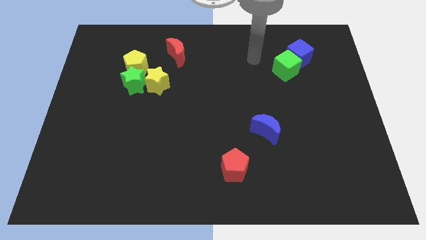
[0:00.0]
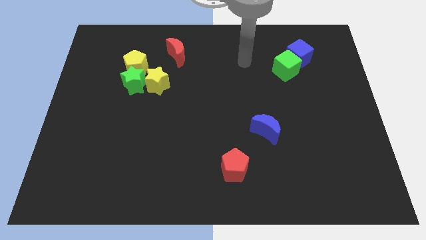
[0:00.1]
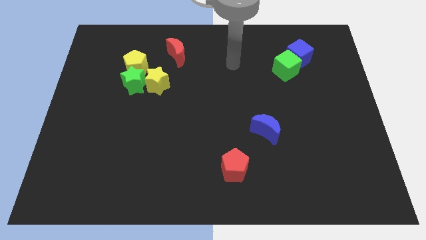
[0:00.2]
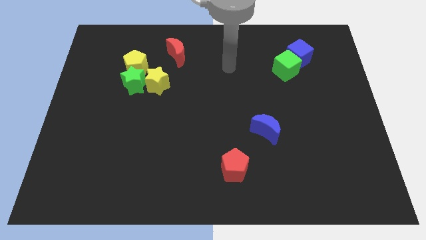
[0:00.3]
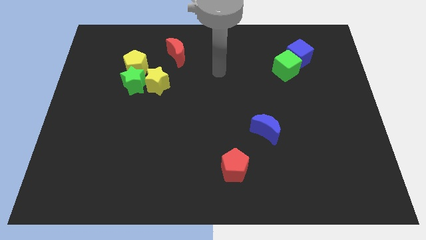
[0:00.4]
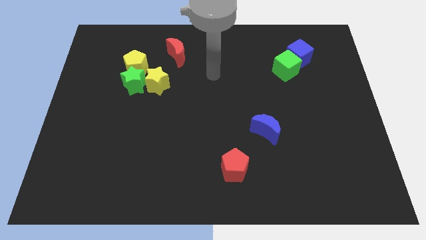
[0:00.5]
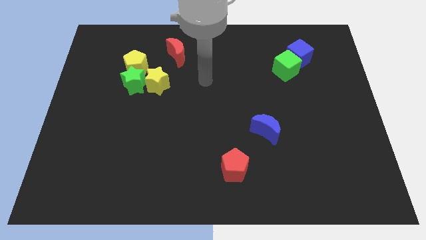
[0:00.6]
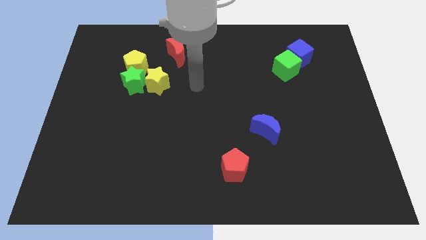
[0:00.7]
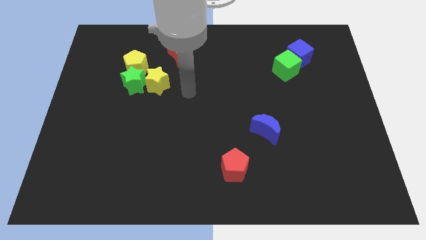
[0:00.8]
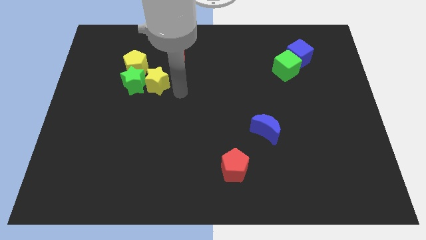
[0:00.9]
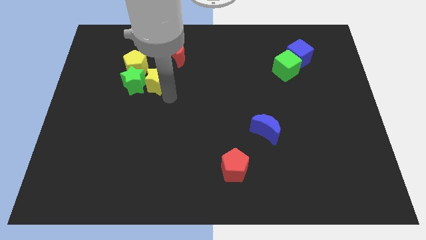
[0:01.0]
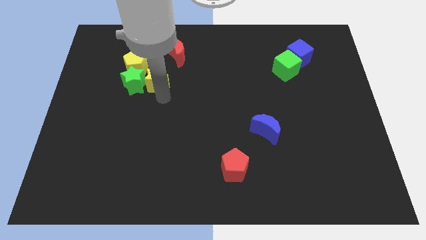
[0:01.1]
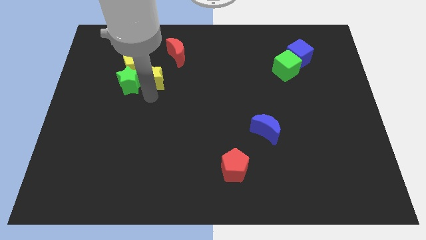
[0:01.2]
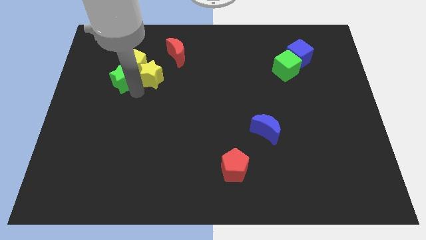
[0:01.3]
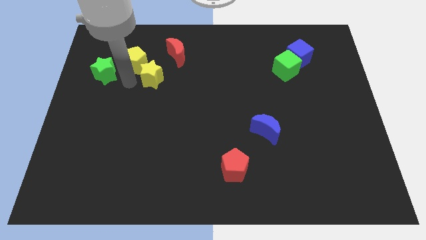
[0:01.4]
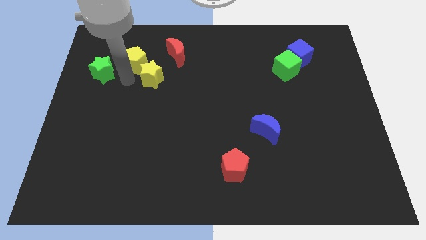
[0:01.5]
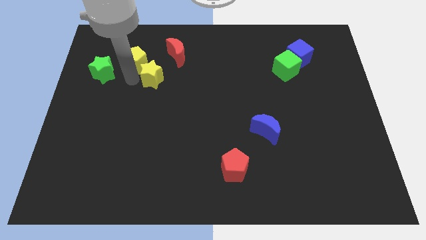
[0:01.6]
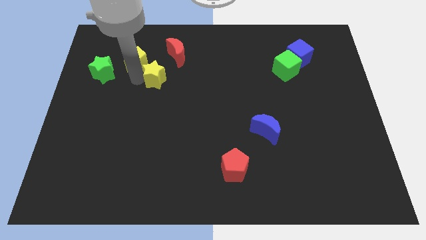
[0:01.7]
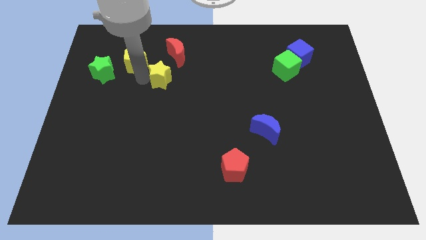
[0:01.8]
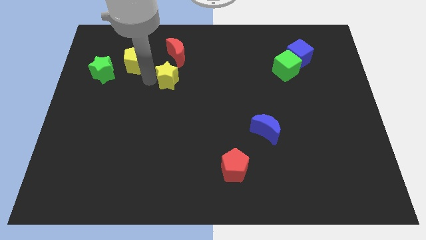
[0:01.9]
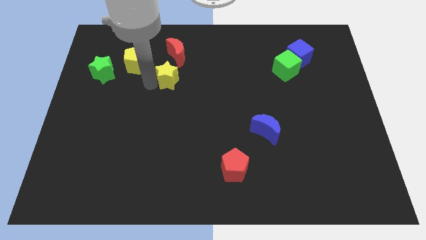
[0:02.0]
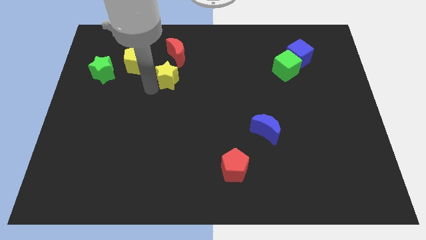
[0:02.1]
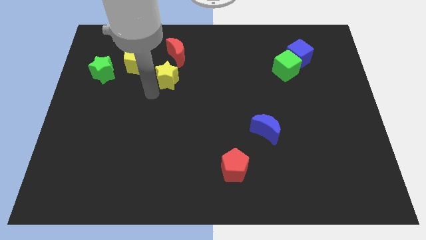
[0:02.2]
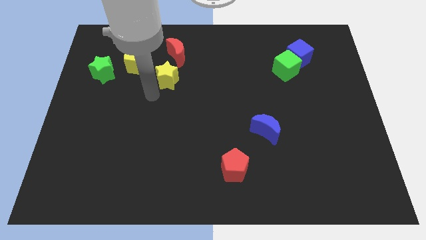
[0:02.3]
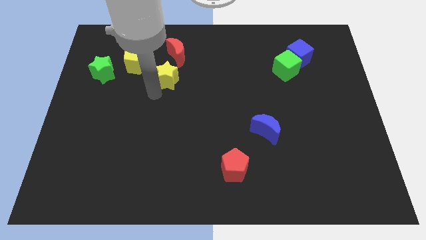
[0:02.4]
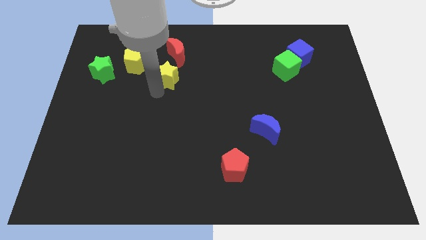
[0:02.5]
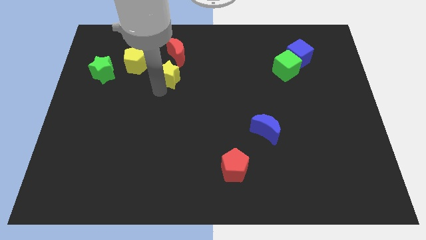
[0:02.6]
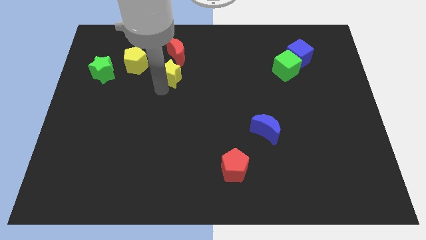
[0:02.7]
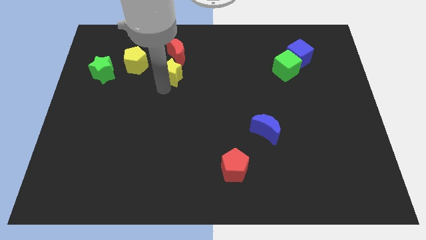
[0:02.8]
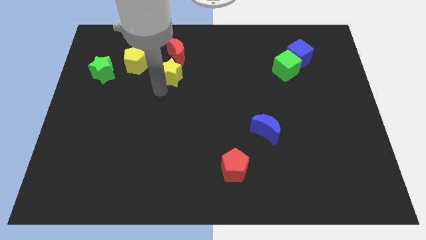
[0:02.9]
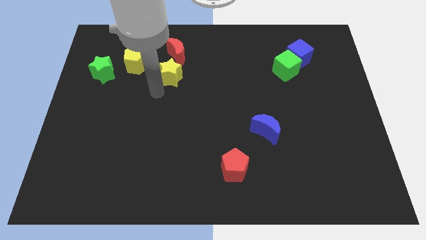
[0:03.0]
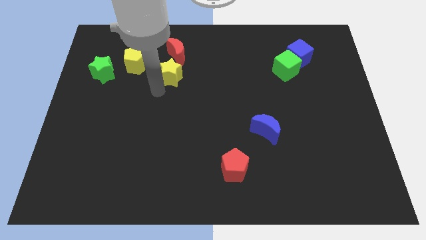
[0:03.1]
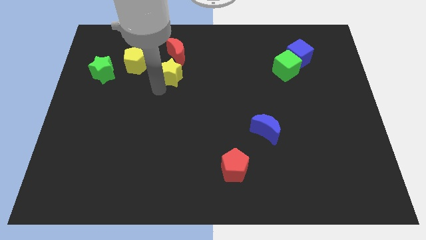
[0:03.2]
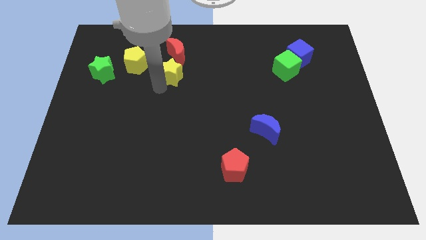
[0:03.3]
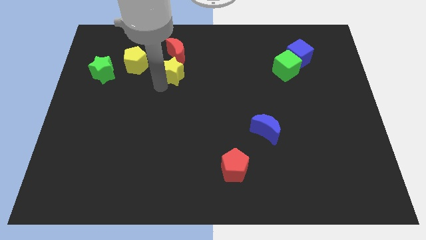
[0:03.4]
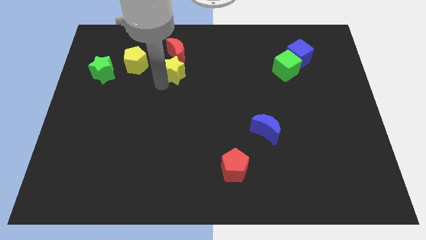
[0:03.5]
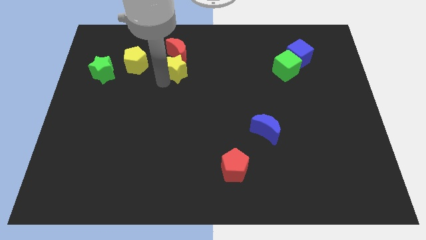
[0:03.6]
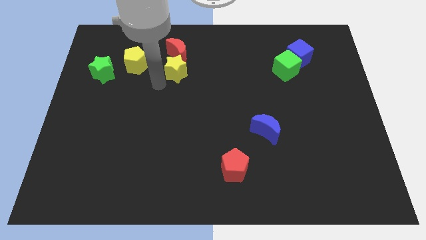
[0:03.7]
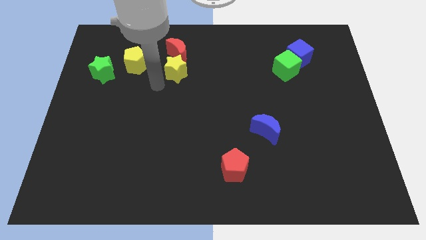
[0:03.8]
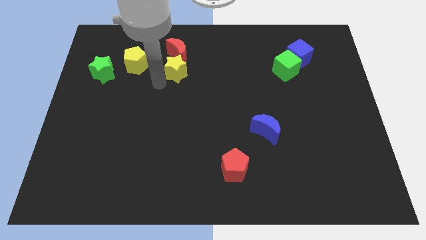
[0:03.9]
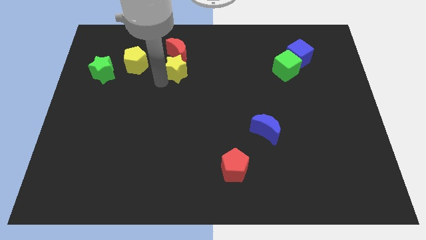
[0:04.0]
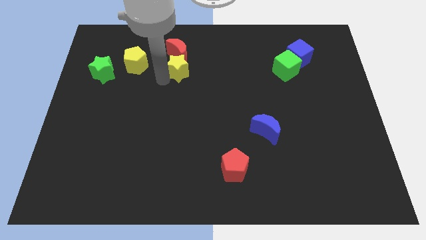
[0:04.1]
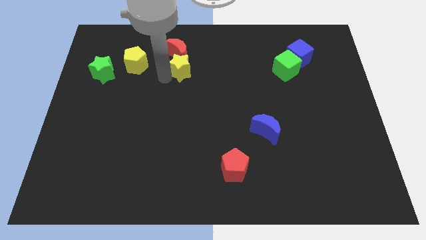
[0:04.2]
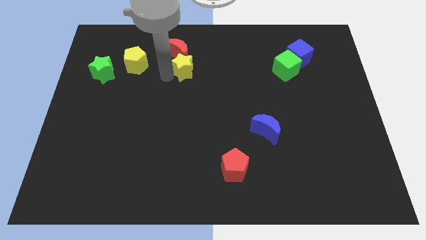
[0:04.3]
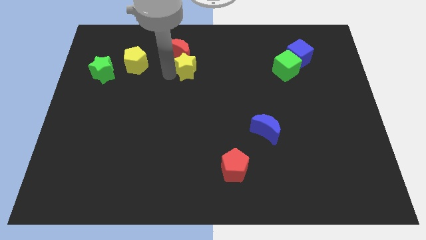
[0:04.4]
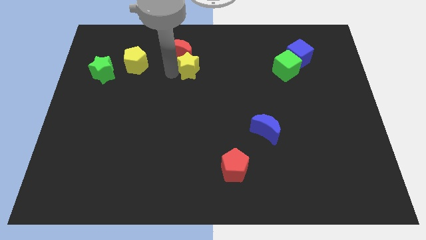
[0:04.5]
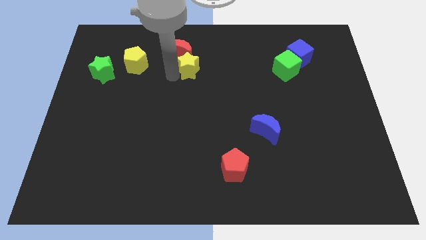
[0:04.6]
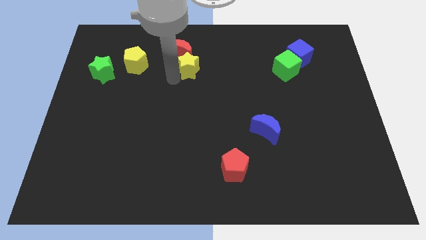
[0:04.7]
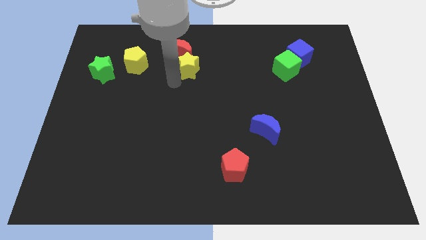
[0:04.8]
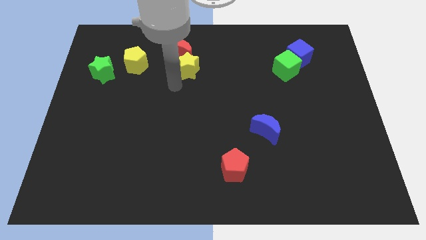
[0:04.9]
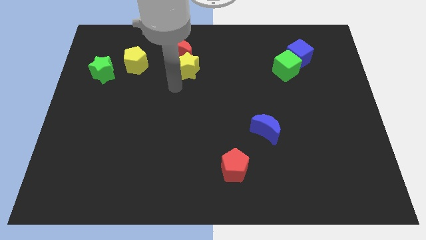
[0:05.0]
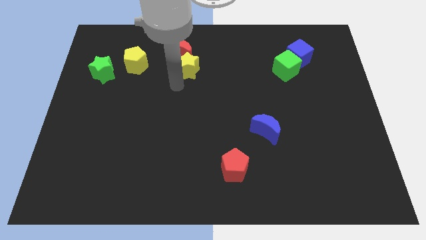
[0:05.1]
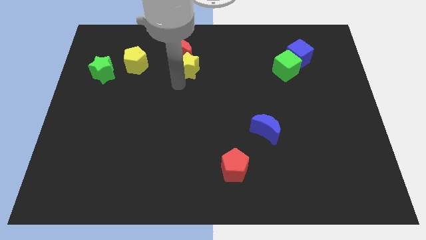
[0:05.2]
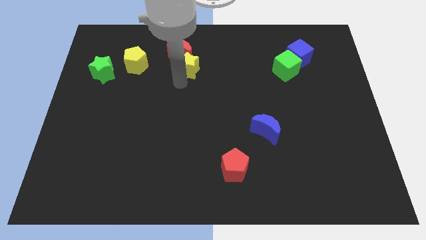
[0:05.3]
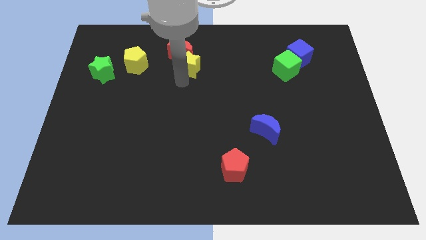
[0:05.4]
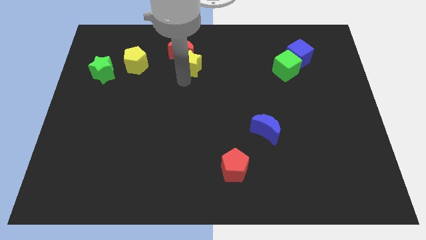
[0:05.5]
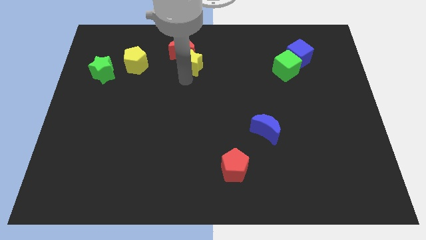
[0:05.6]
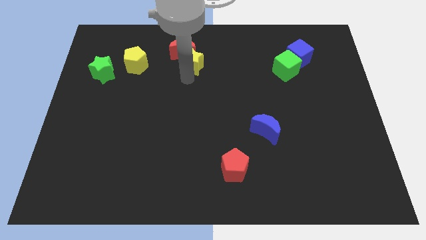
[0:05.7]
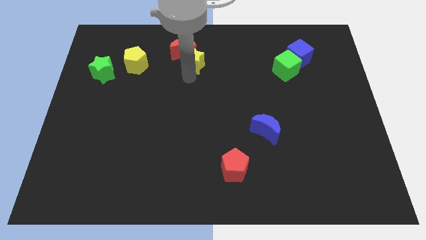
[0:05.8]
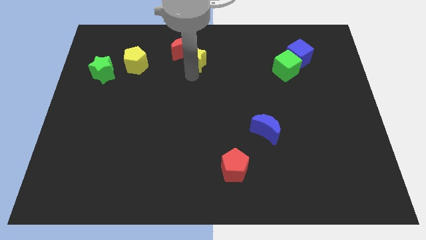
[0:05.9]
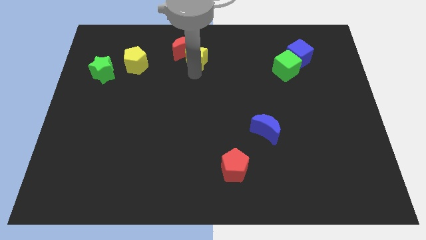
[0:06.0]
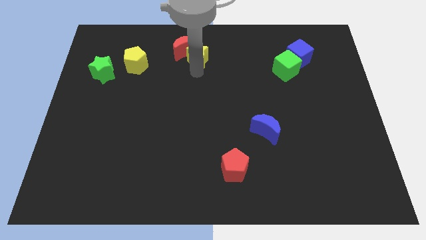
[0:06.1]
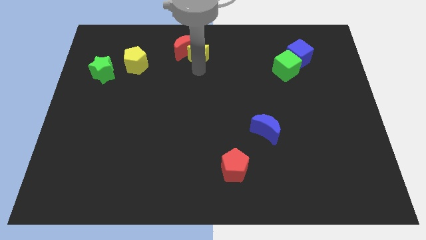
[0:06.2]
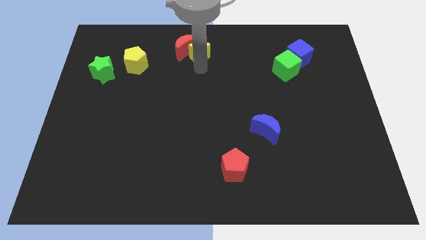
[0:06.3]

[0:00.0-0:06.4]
slide the yellow star to the top
